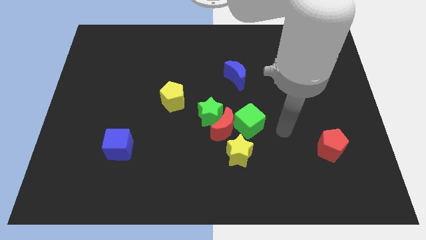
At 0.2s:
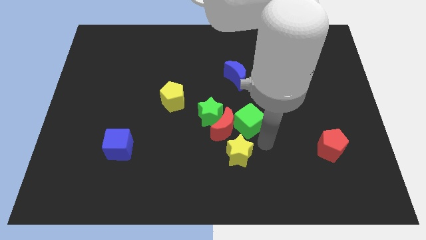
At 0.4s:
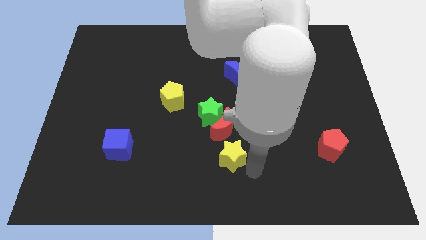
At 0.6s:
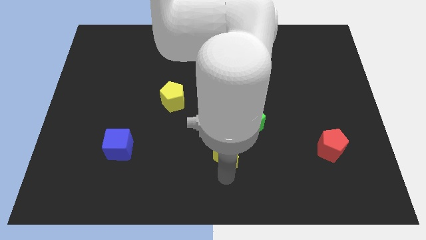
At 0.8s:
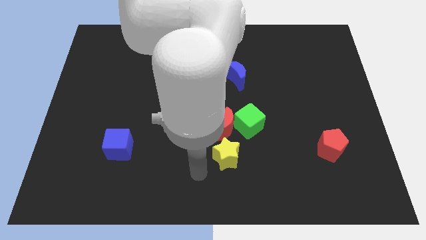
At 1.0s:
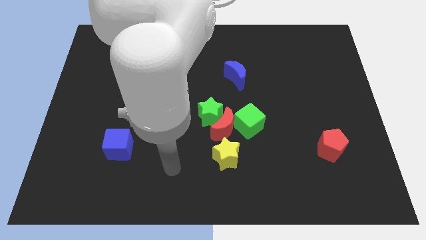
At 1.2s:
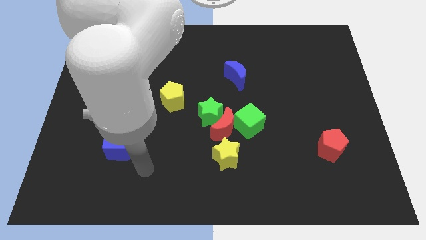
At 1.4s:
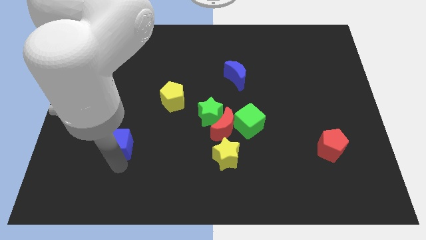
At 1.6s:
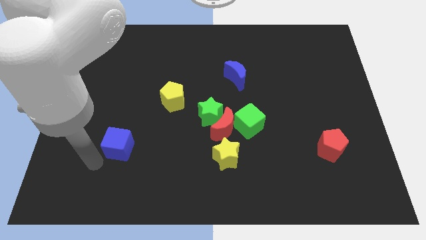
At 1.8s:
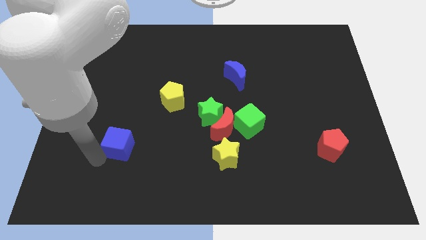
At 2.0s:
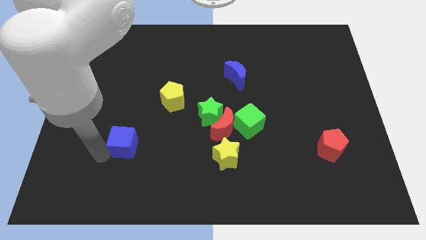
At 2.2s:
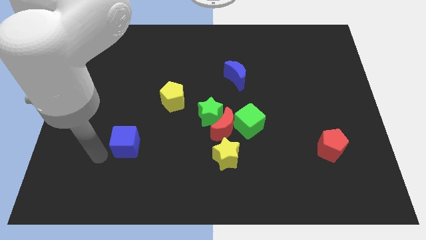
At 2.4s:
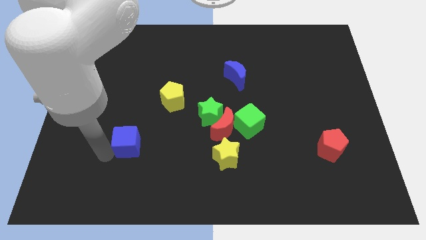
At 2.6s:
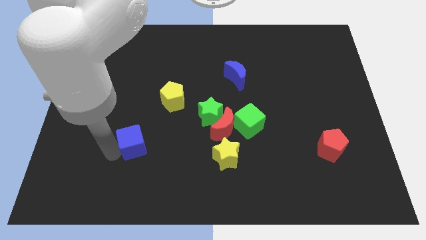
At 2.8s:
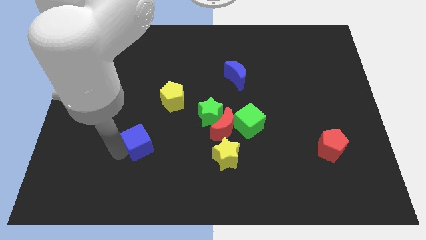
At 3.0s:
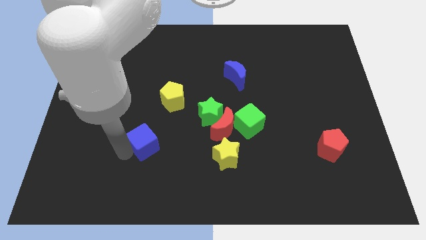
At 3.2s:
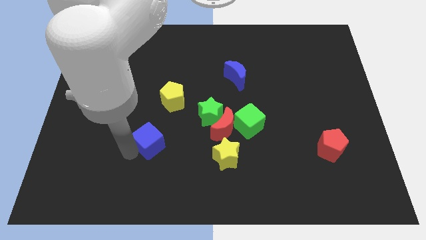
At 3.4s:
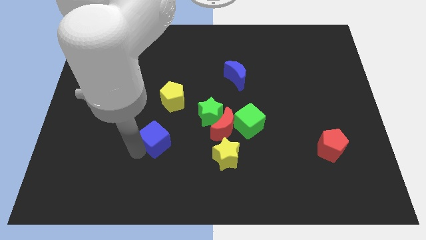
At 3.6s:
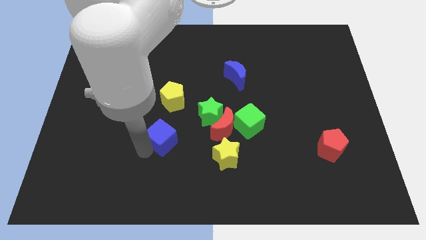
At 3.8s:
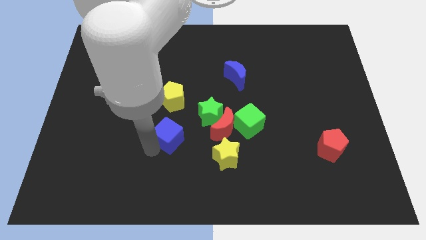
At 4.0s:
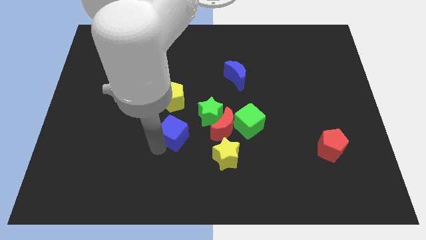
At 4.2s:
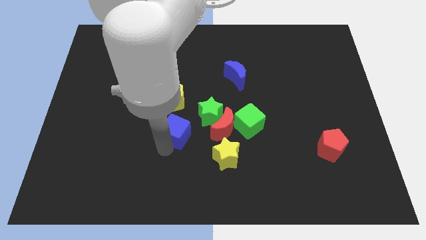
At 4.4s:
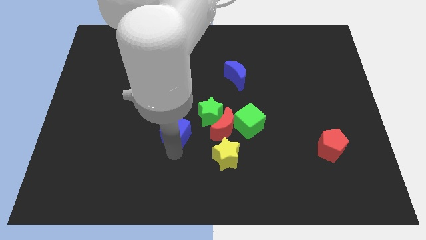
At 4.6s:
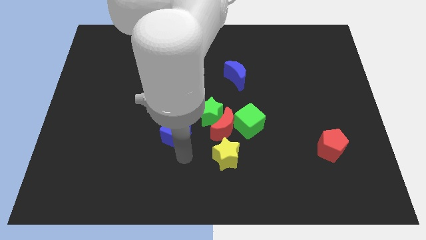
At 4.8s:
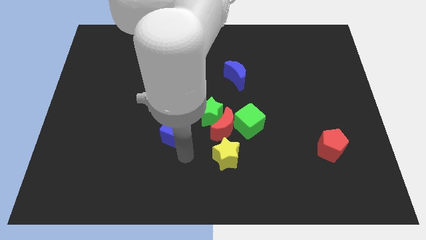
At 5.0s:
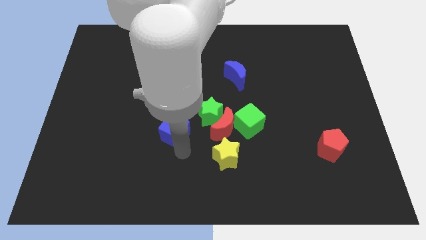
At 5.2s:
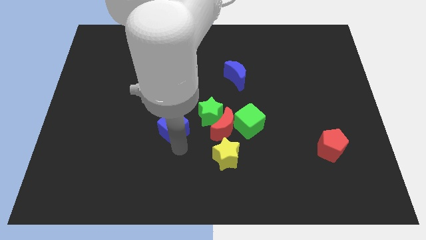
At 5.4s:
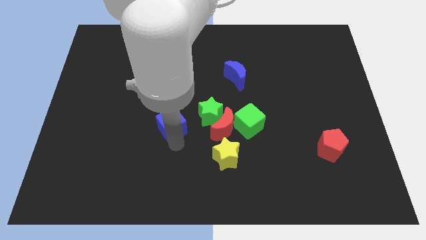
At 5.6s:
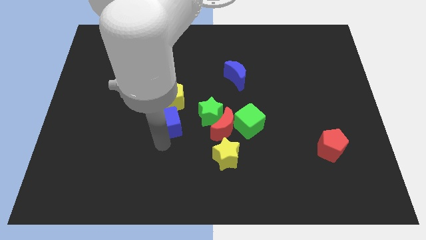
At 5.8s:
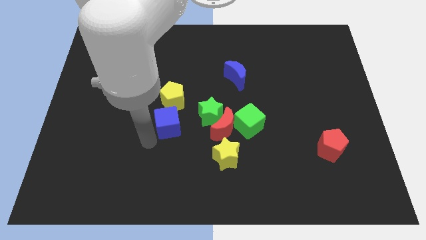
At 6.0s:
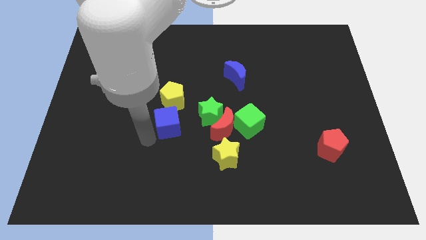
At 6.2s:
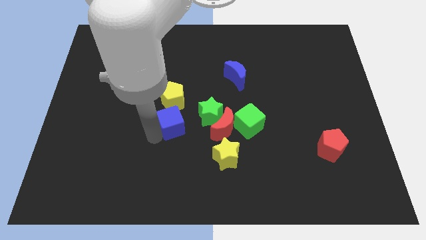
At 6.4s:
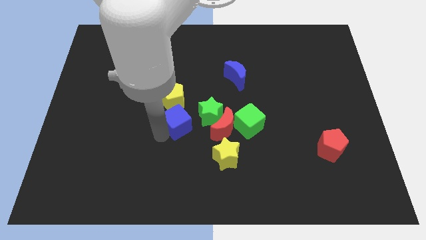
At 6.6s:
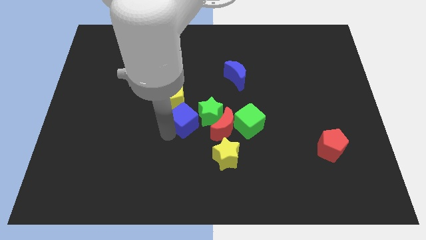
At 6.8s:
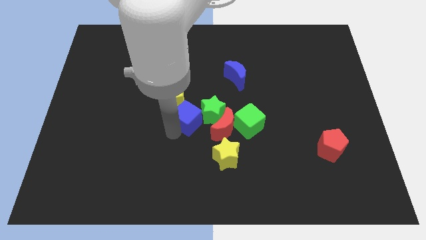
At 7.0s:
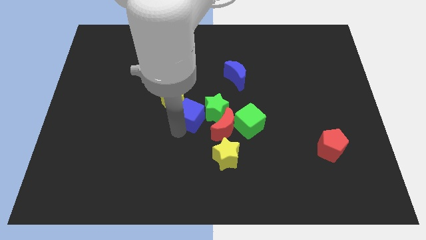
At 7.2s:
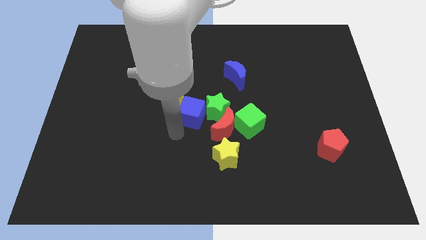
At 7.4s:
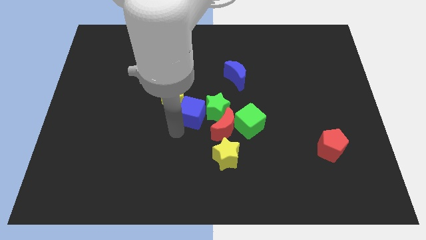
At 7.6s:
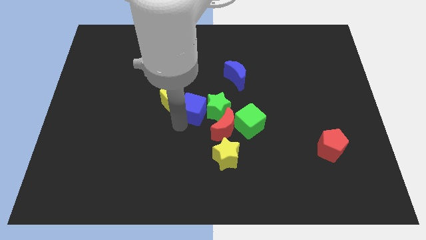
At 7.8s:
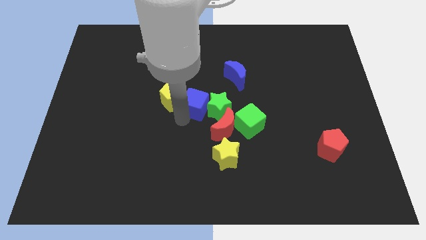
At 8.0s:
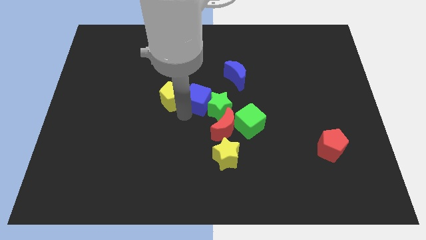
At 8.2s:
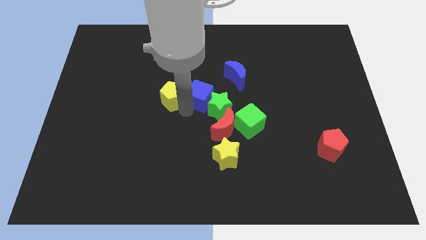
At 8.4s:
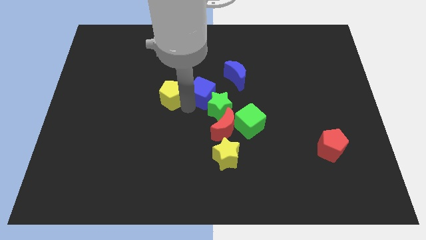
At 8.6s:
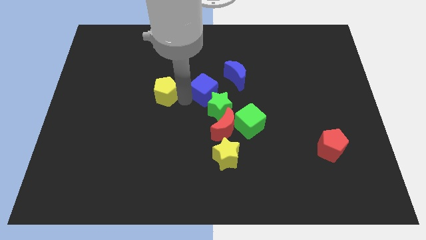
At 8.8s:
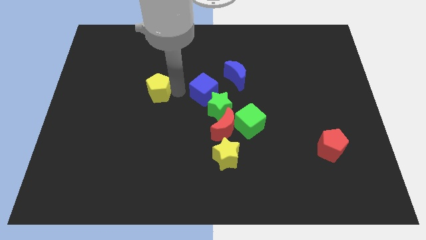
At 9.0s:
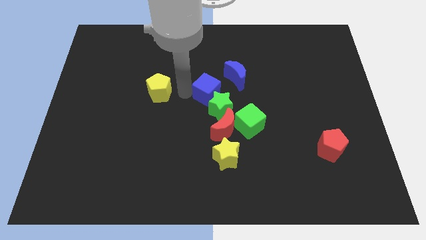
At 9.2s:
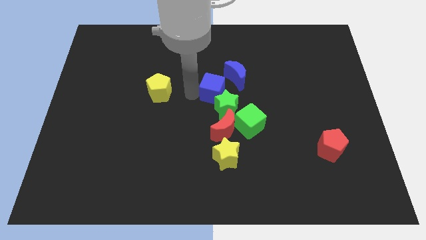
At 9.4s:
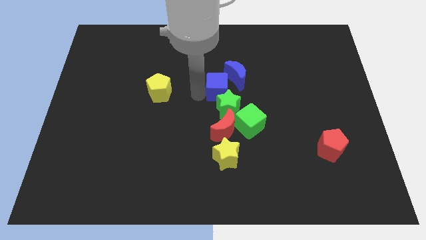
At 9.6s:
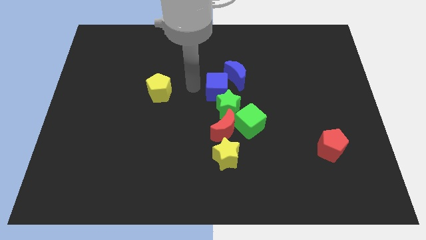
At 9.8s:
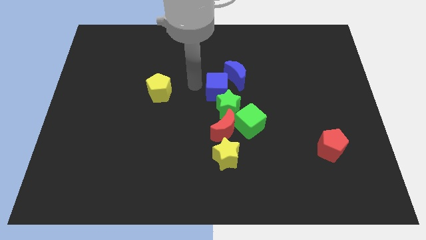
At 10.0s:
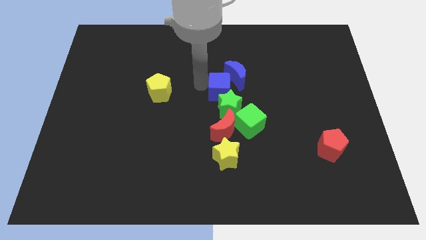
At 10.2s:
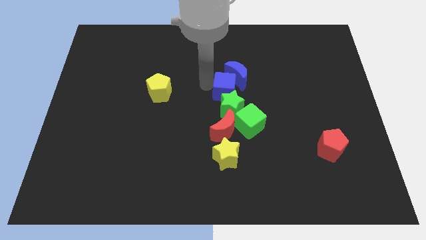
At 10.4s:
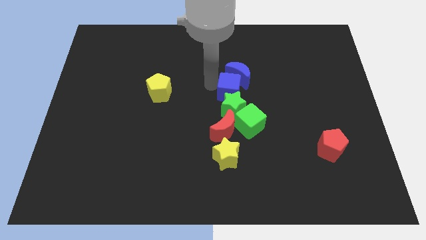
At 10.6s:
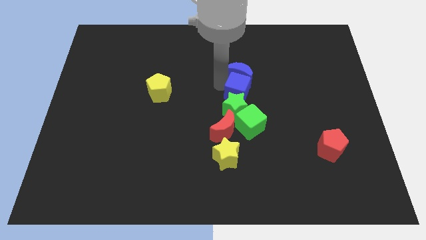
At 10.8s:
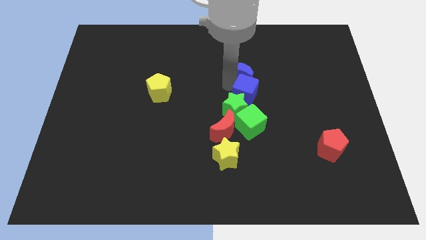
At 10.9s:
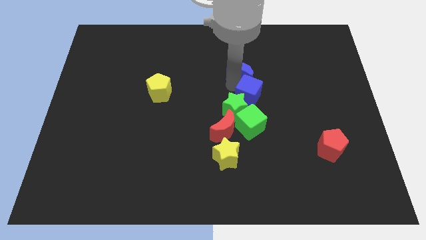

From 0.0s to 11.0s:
move the blue cube to the right side of the green star

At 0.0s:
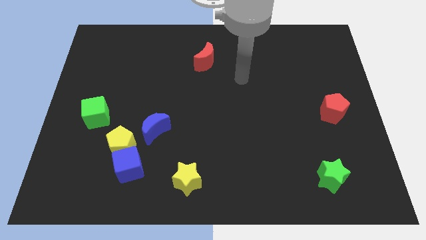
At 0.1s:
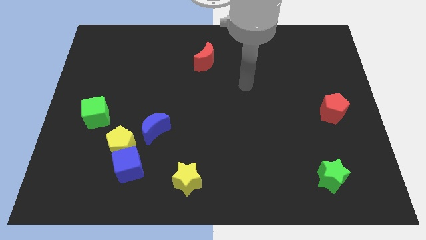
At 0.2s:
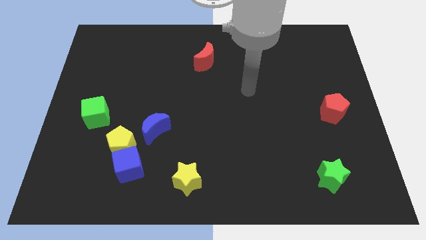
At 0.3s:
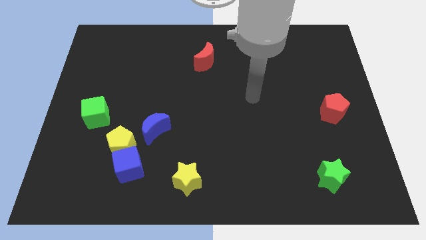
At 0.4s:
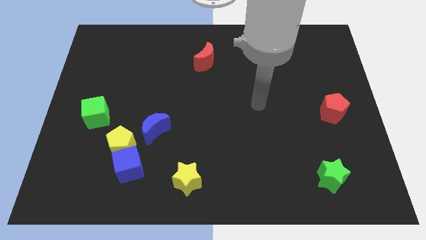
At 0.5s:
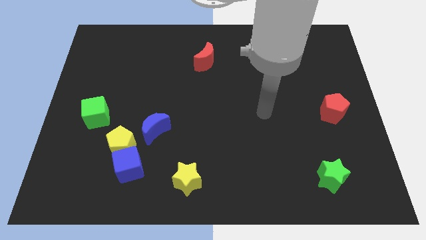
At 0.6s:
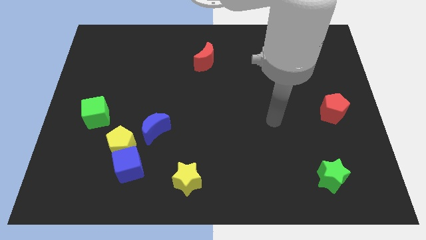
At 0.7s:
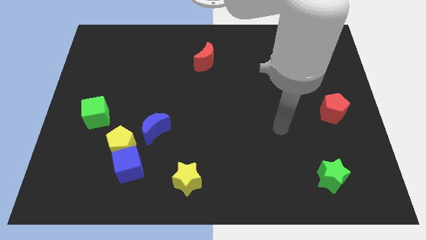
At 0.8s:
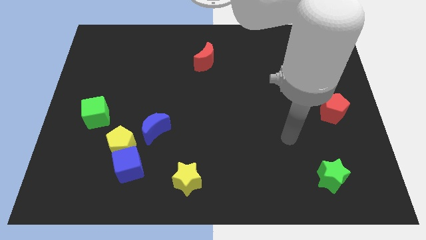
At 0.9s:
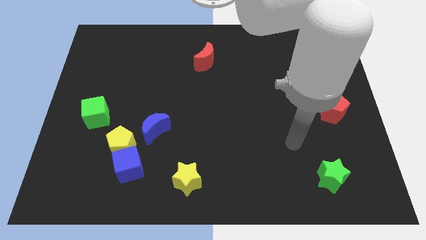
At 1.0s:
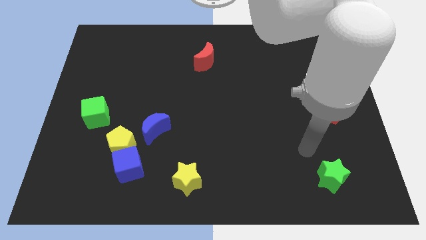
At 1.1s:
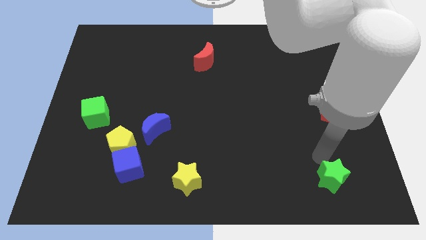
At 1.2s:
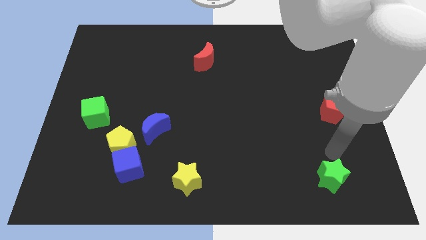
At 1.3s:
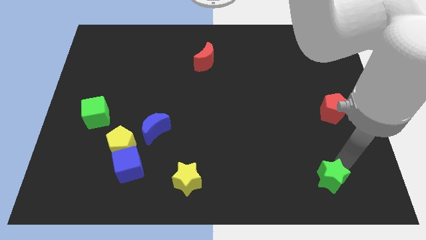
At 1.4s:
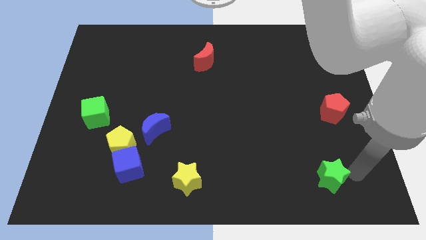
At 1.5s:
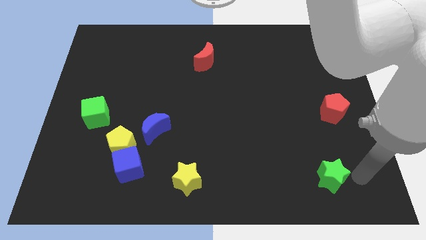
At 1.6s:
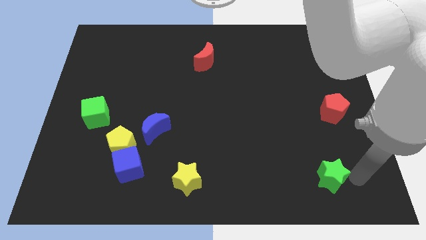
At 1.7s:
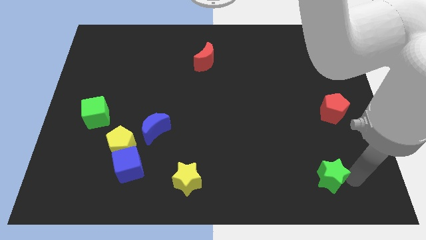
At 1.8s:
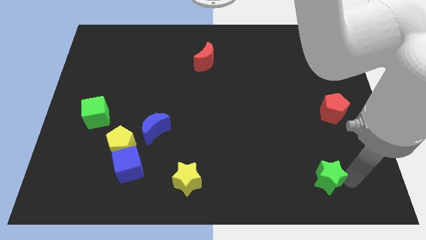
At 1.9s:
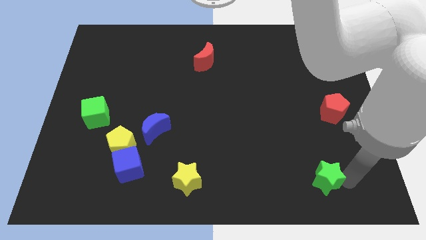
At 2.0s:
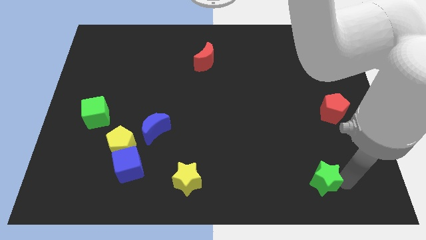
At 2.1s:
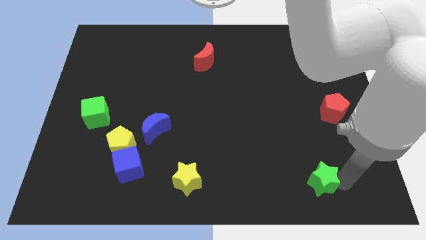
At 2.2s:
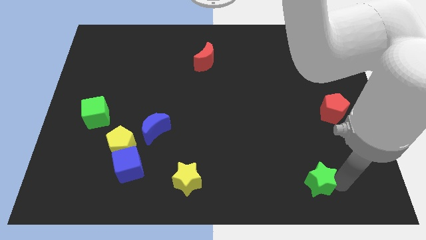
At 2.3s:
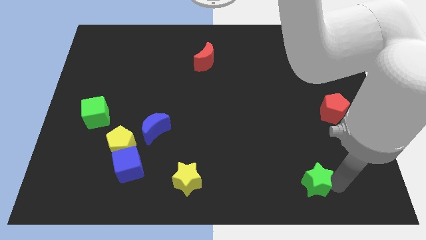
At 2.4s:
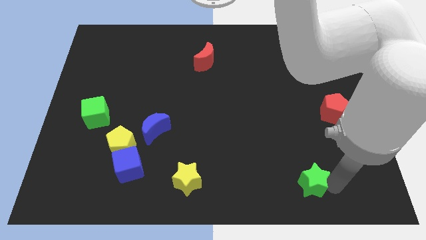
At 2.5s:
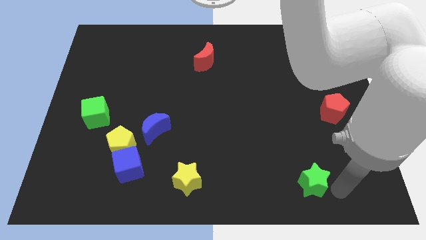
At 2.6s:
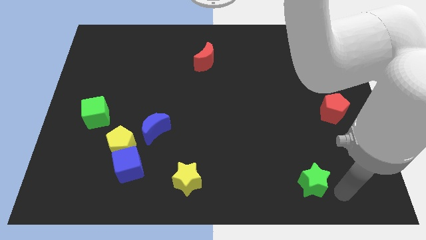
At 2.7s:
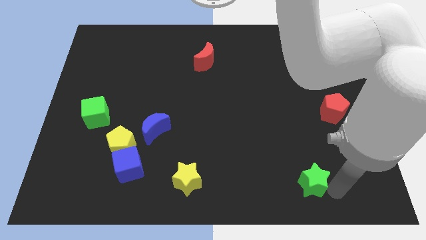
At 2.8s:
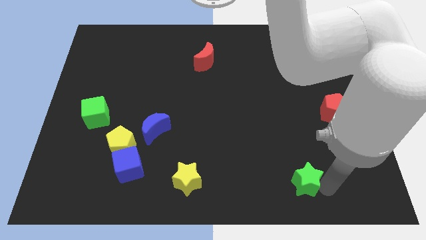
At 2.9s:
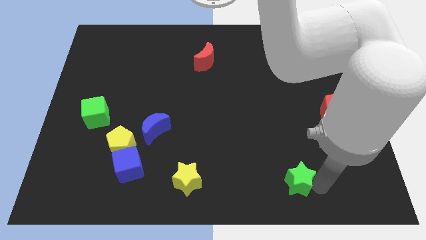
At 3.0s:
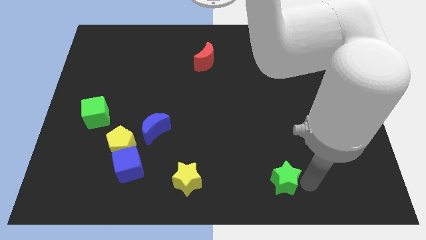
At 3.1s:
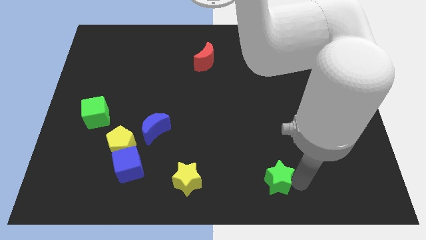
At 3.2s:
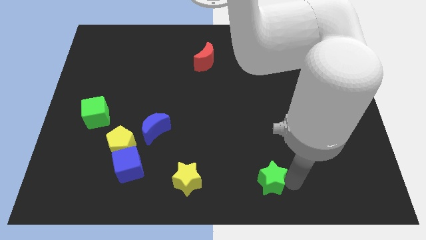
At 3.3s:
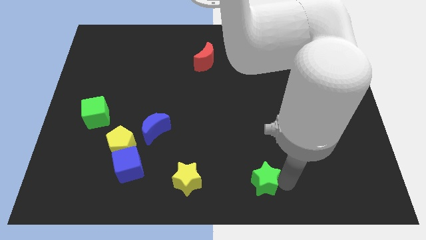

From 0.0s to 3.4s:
move the green star to the right side of the yellow star
